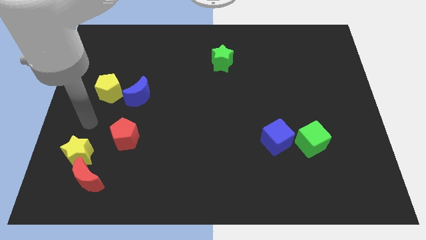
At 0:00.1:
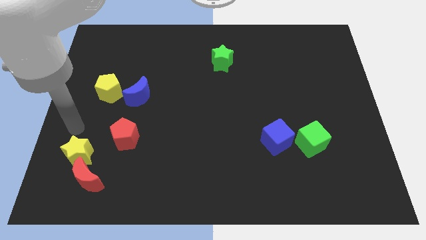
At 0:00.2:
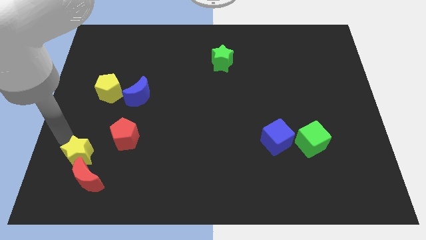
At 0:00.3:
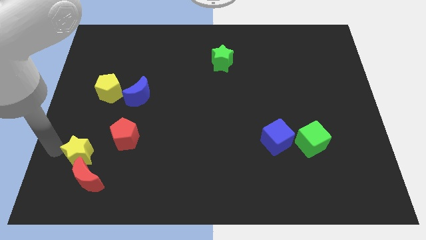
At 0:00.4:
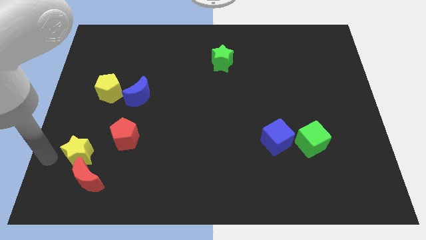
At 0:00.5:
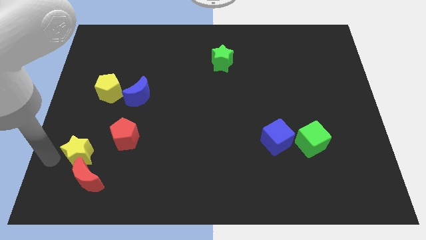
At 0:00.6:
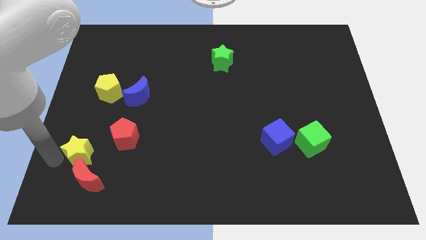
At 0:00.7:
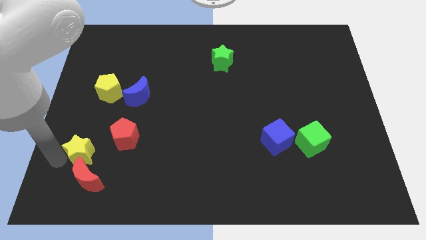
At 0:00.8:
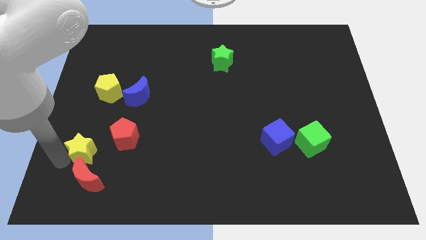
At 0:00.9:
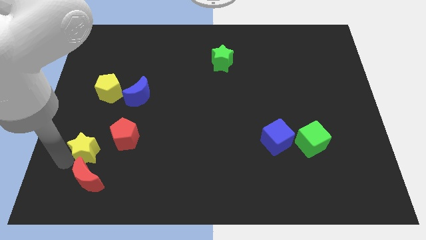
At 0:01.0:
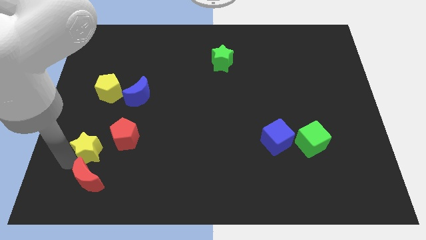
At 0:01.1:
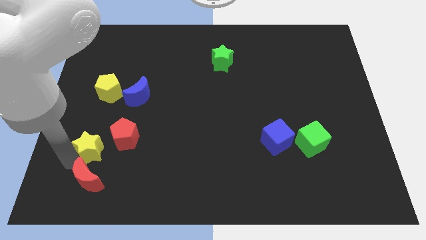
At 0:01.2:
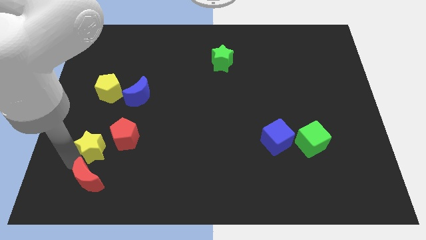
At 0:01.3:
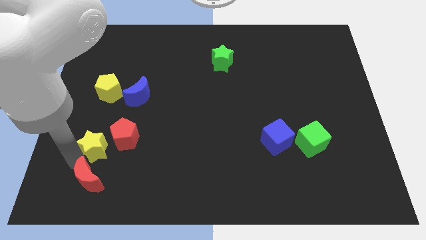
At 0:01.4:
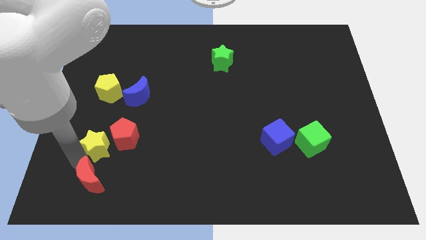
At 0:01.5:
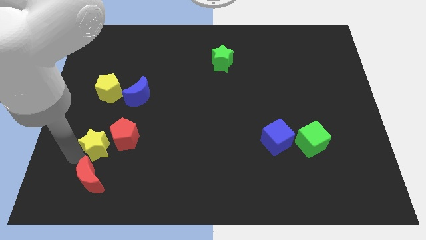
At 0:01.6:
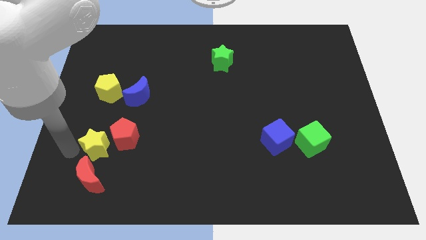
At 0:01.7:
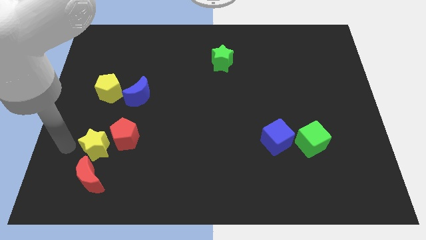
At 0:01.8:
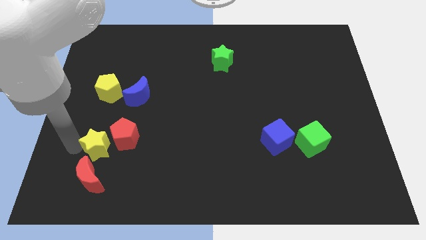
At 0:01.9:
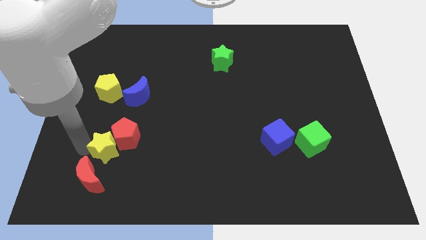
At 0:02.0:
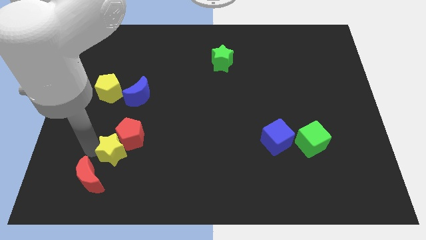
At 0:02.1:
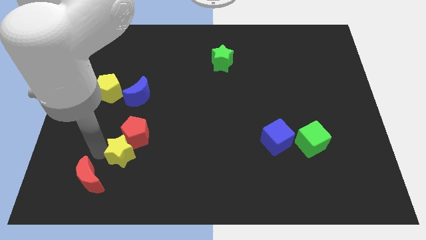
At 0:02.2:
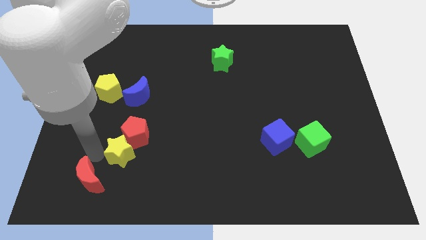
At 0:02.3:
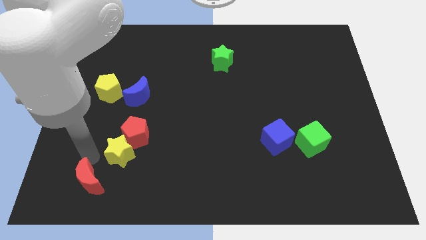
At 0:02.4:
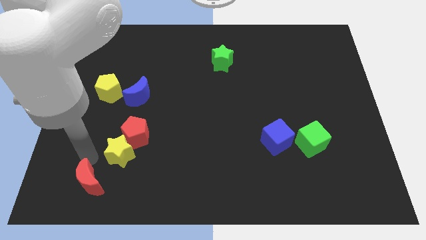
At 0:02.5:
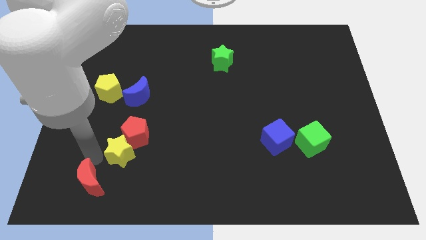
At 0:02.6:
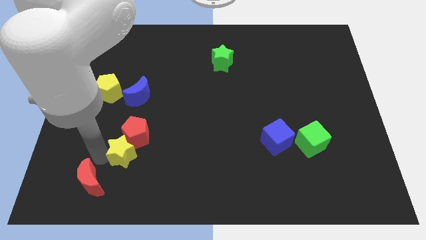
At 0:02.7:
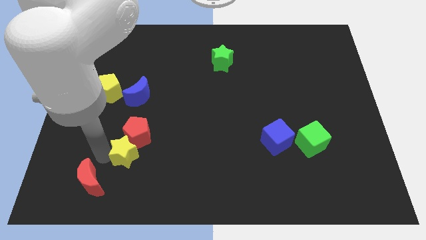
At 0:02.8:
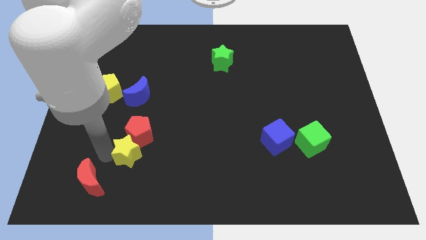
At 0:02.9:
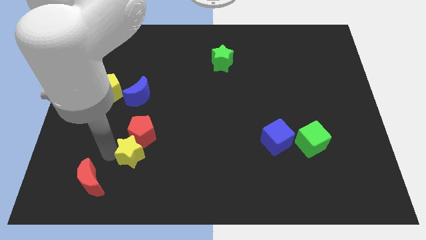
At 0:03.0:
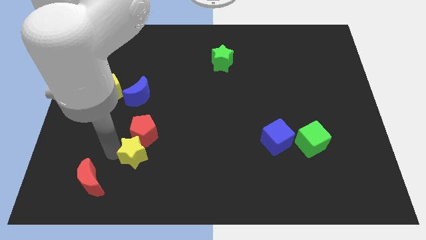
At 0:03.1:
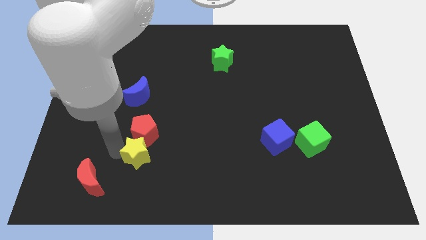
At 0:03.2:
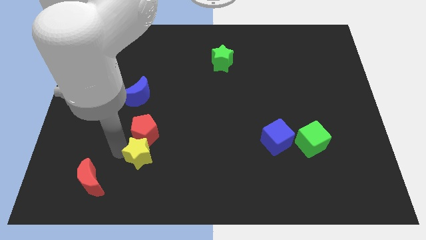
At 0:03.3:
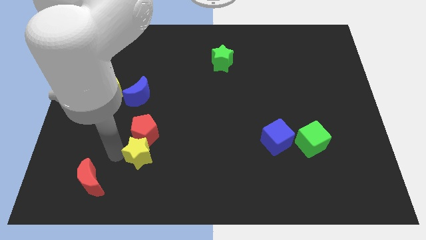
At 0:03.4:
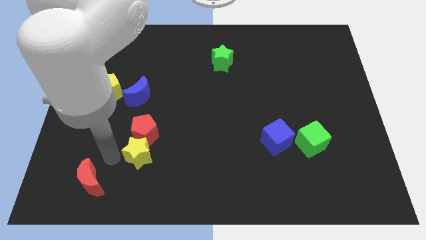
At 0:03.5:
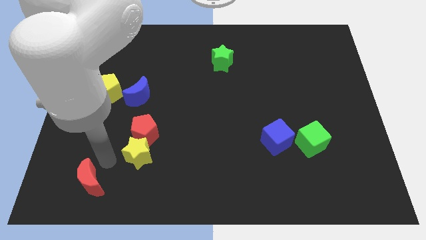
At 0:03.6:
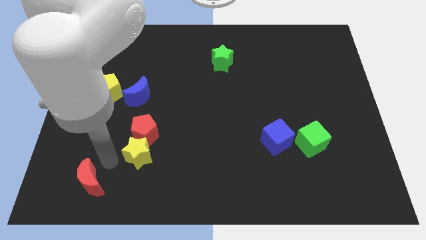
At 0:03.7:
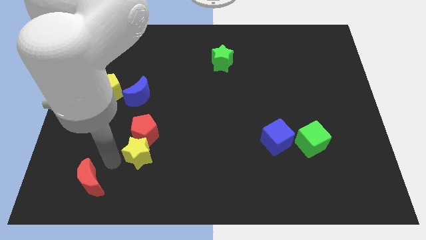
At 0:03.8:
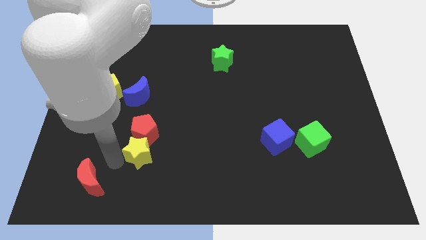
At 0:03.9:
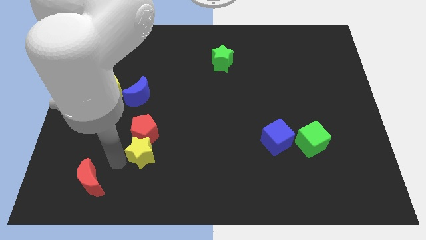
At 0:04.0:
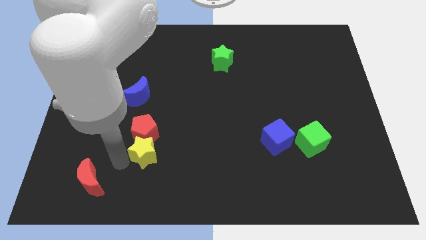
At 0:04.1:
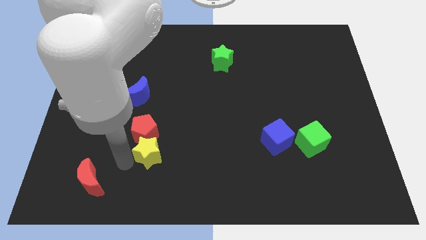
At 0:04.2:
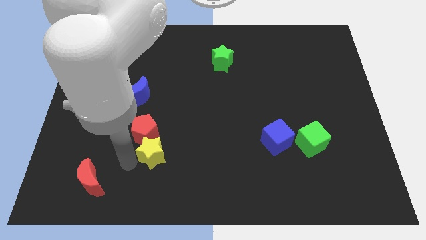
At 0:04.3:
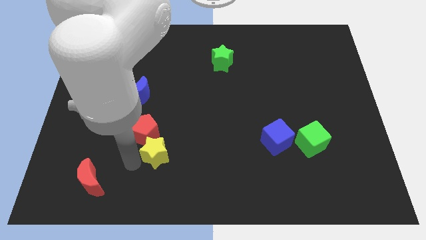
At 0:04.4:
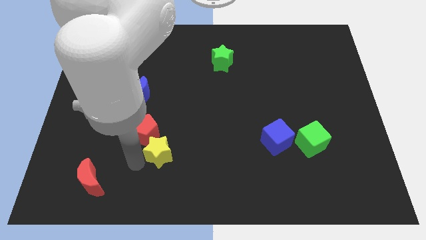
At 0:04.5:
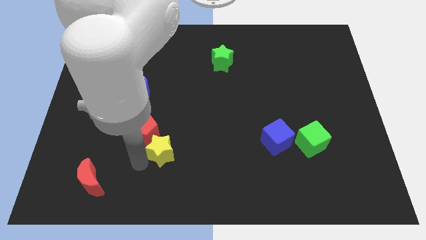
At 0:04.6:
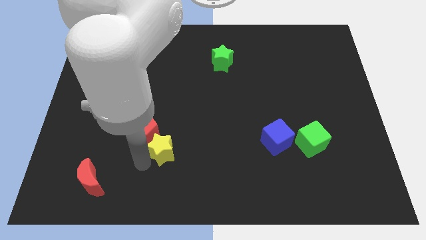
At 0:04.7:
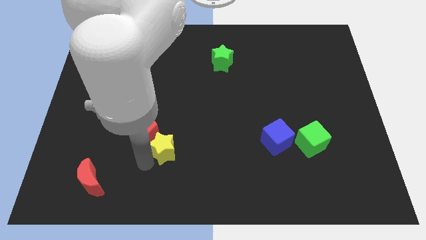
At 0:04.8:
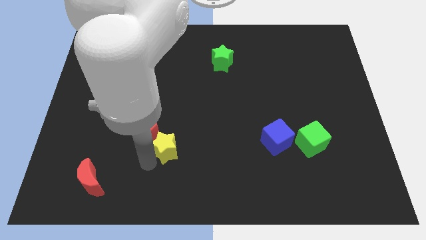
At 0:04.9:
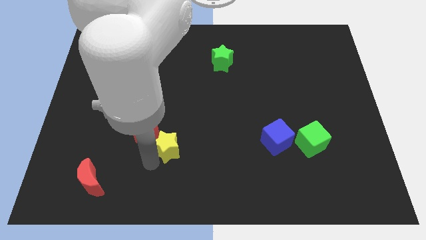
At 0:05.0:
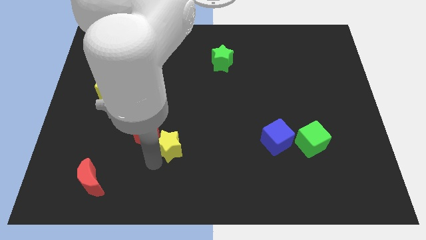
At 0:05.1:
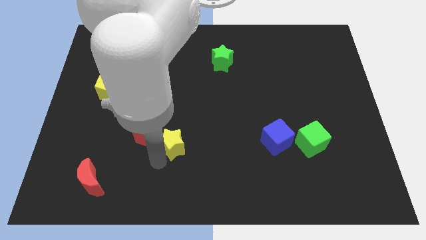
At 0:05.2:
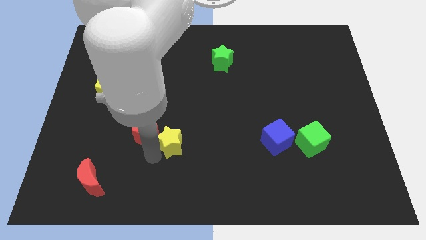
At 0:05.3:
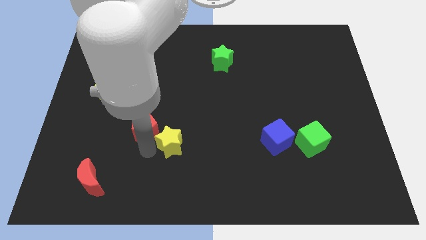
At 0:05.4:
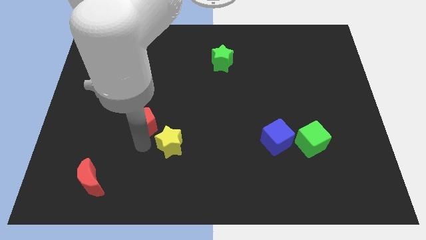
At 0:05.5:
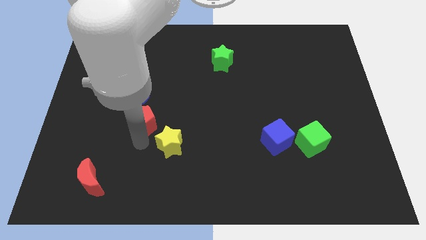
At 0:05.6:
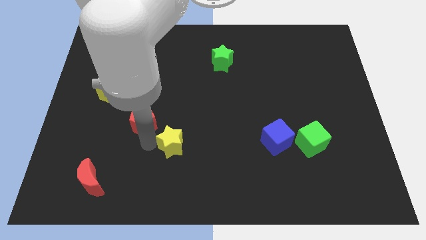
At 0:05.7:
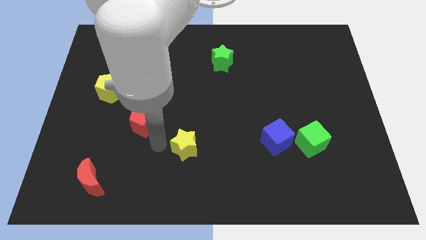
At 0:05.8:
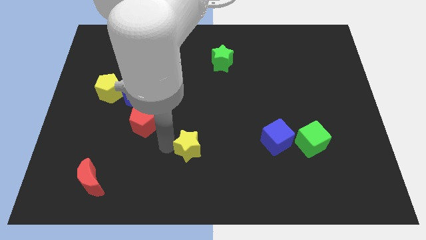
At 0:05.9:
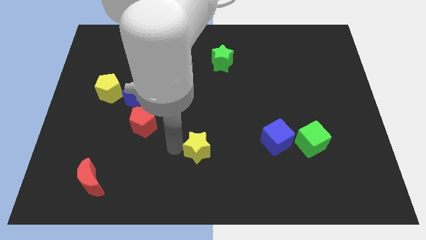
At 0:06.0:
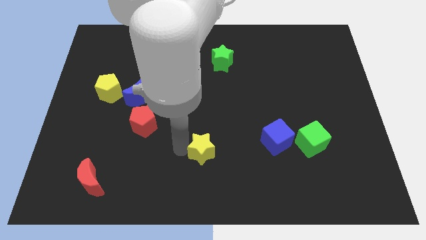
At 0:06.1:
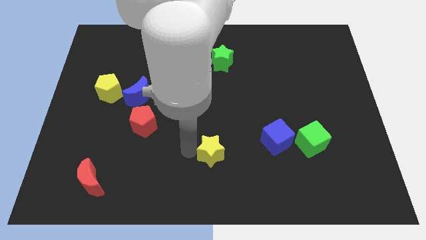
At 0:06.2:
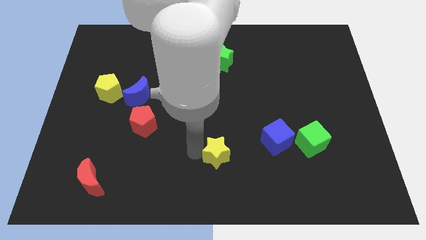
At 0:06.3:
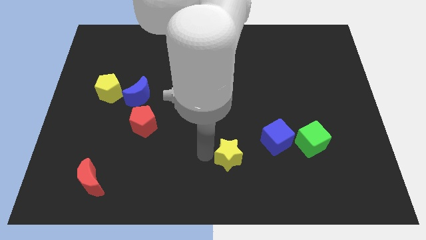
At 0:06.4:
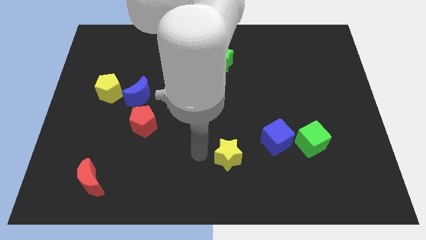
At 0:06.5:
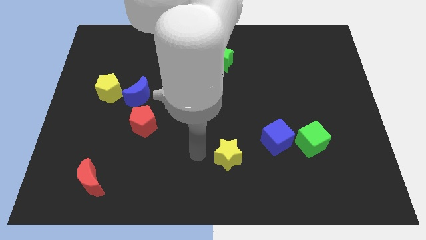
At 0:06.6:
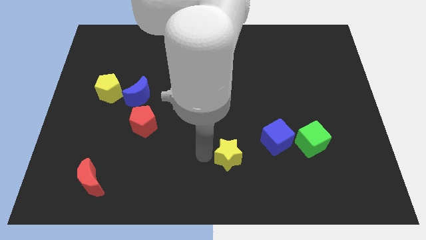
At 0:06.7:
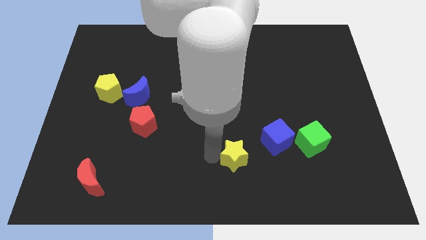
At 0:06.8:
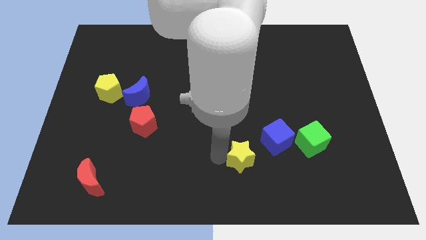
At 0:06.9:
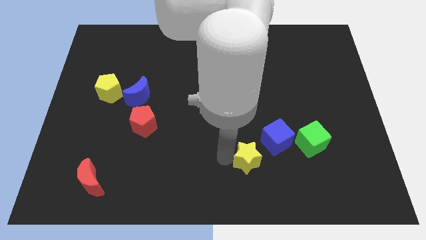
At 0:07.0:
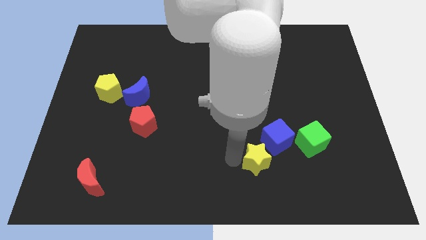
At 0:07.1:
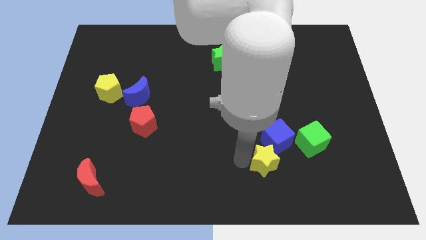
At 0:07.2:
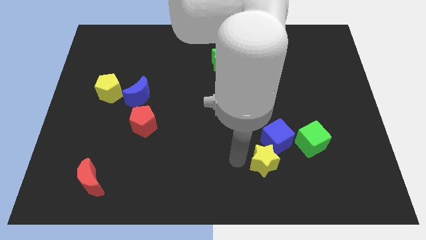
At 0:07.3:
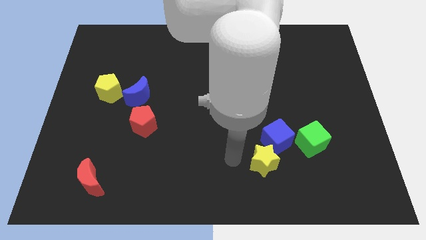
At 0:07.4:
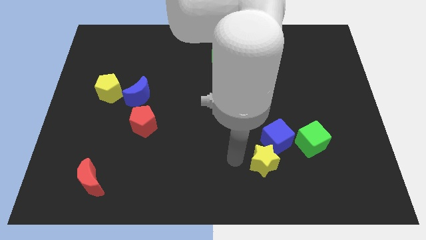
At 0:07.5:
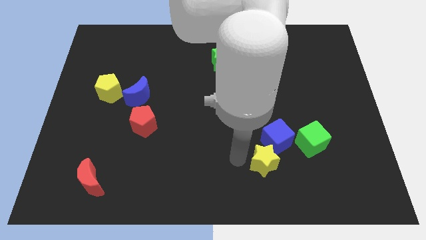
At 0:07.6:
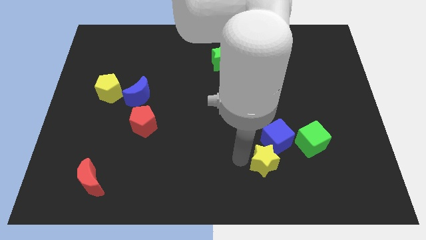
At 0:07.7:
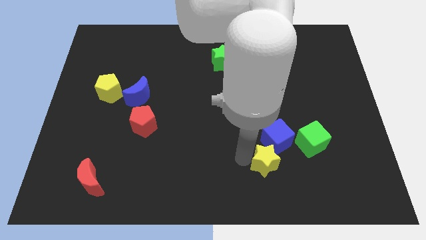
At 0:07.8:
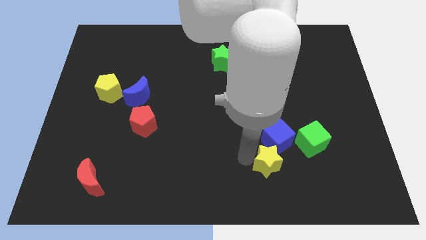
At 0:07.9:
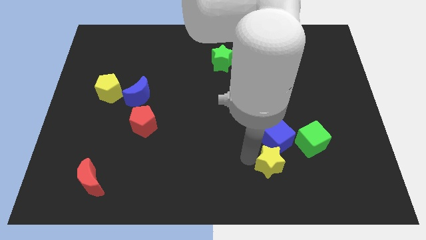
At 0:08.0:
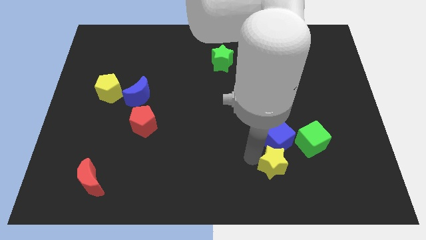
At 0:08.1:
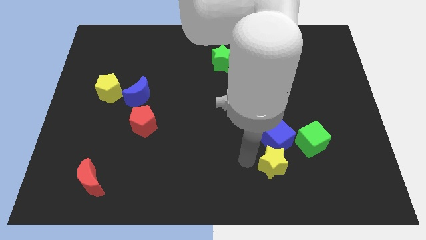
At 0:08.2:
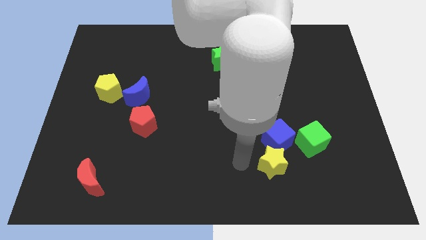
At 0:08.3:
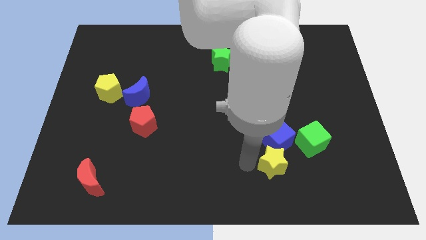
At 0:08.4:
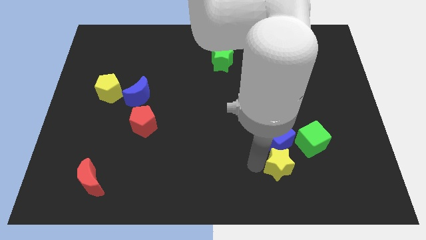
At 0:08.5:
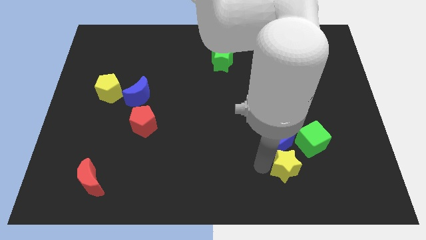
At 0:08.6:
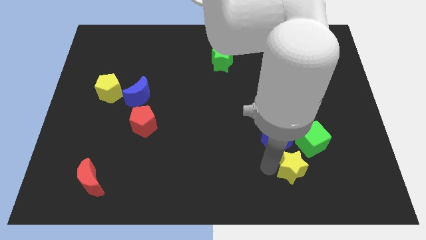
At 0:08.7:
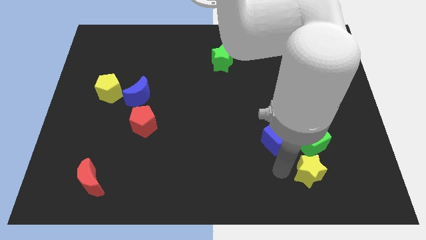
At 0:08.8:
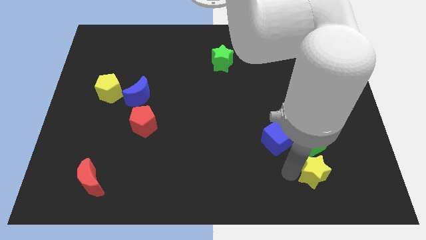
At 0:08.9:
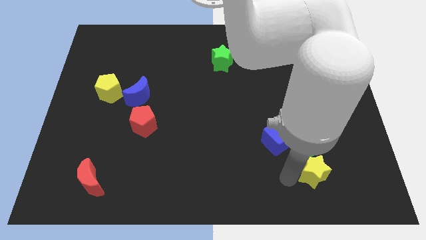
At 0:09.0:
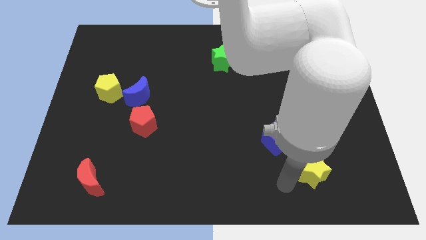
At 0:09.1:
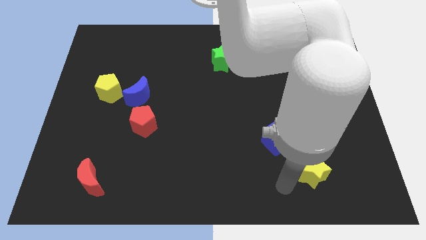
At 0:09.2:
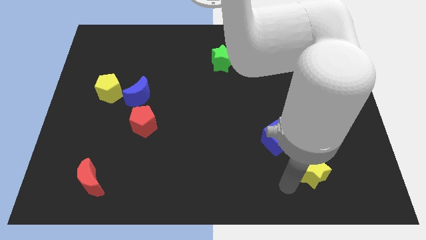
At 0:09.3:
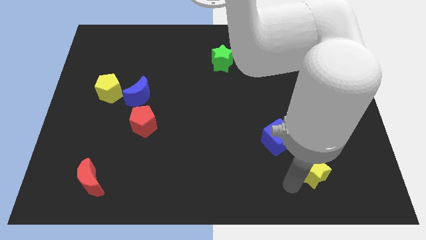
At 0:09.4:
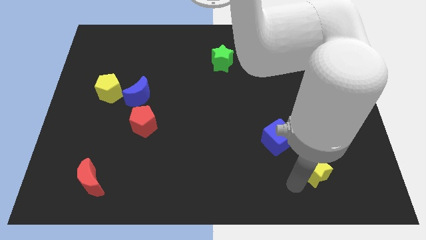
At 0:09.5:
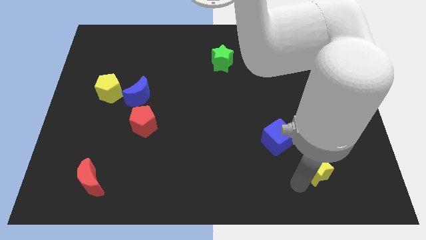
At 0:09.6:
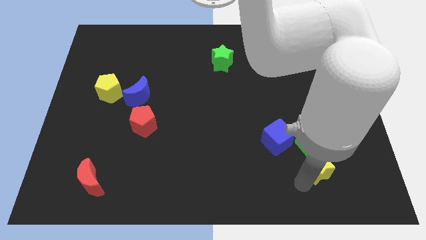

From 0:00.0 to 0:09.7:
move the yellow star to the bottom right of the green cube
